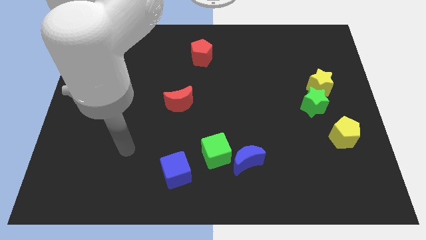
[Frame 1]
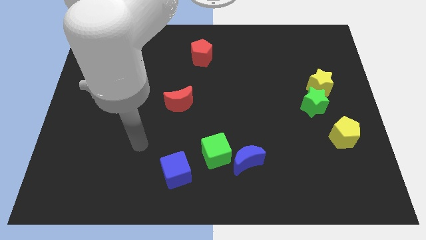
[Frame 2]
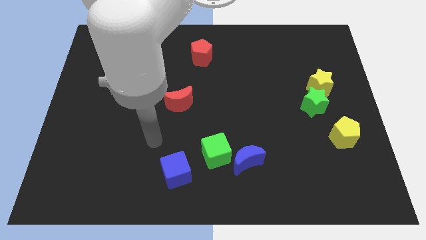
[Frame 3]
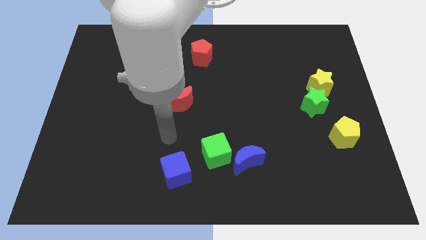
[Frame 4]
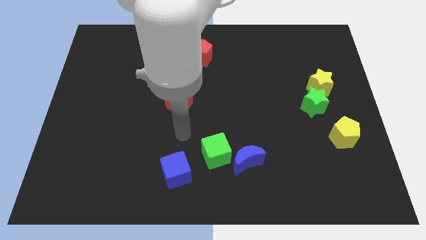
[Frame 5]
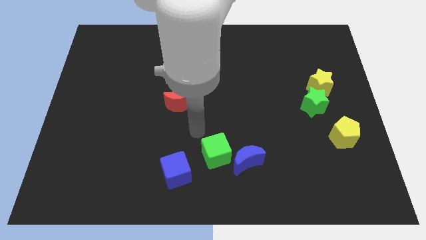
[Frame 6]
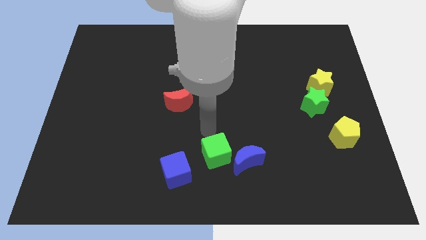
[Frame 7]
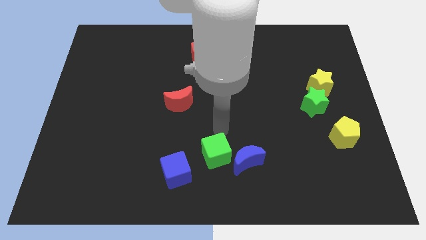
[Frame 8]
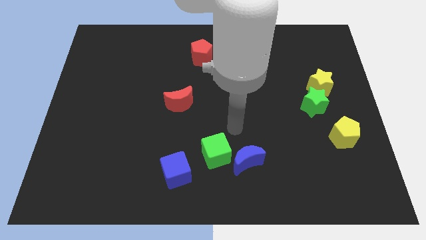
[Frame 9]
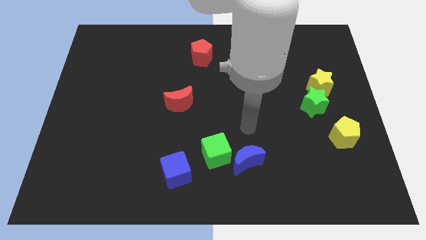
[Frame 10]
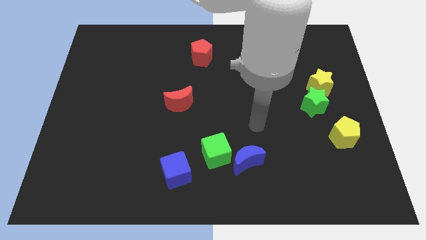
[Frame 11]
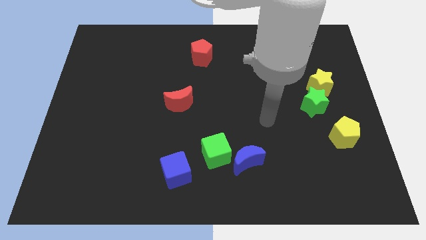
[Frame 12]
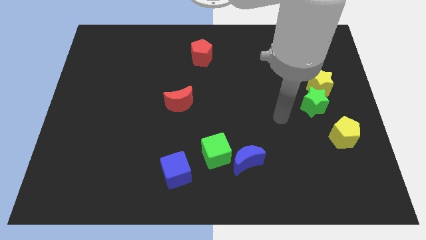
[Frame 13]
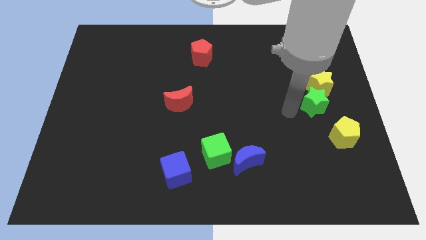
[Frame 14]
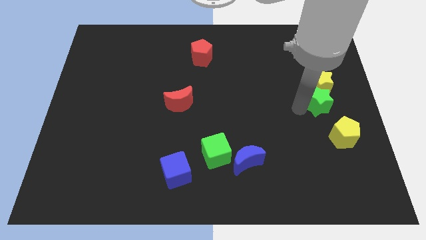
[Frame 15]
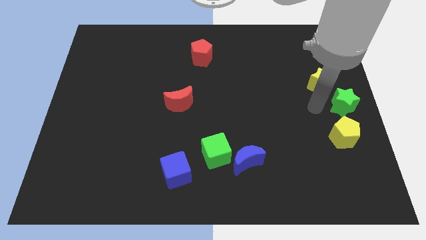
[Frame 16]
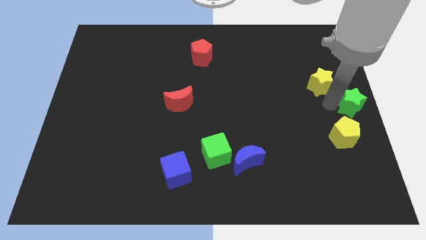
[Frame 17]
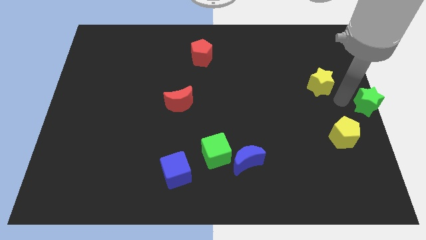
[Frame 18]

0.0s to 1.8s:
move the yellow star away from the green star

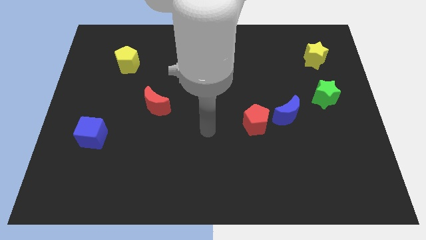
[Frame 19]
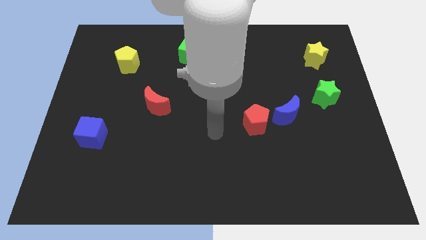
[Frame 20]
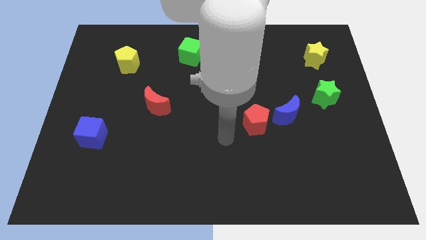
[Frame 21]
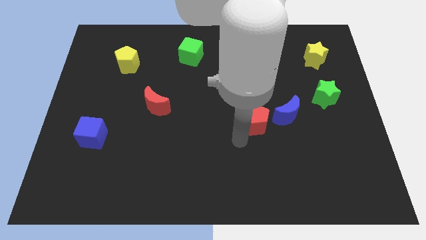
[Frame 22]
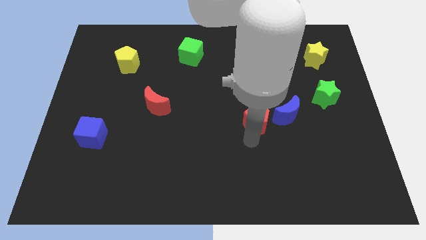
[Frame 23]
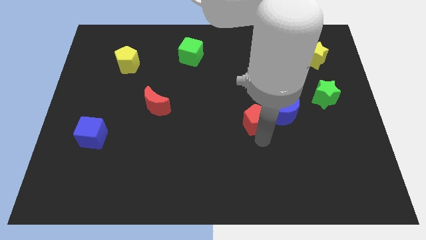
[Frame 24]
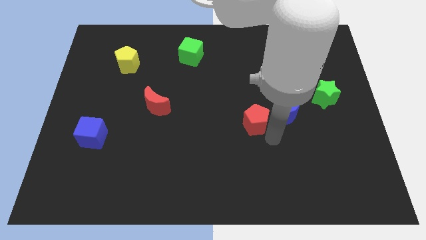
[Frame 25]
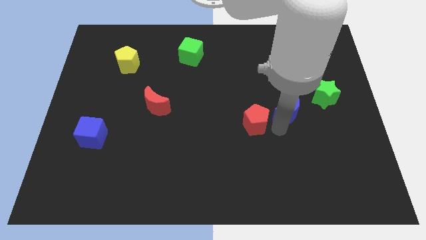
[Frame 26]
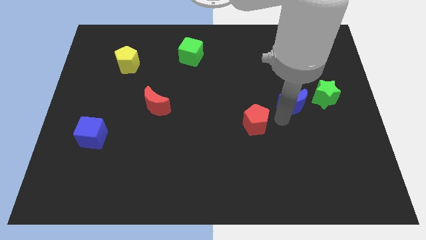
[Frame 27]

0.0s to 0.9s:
pull the red pentagon apart from the blue moon

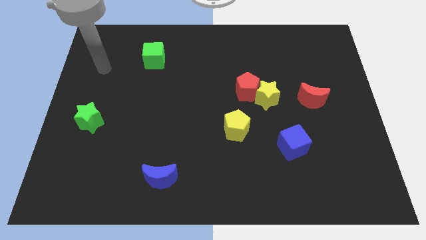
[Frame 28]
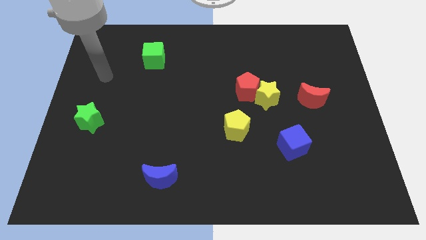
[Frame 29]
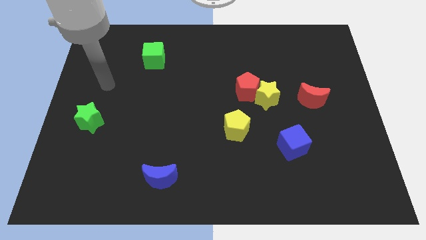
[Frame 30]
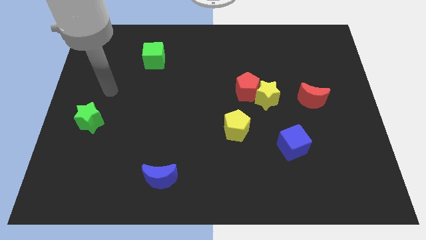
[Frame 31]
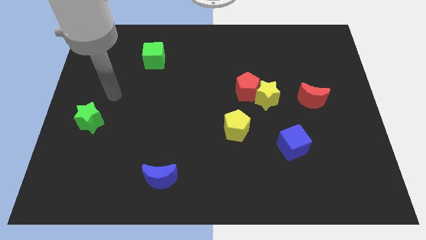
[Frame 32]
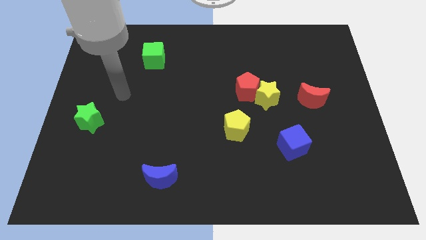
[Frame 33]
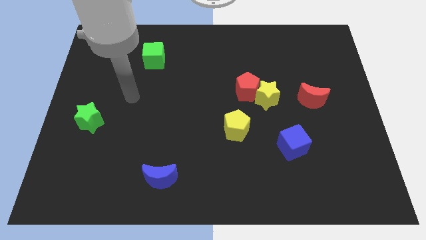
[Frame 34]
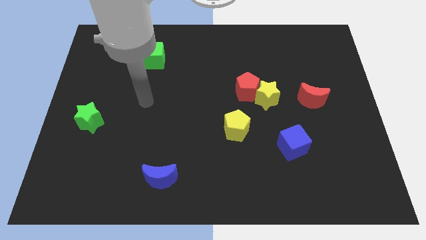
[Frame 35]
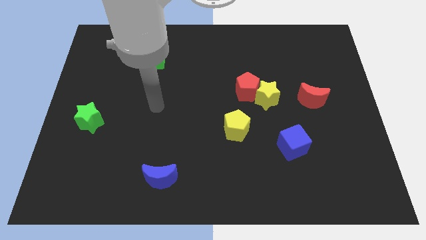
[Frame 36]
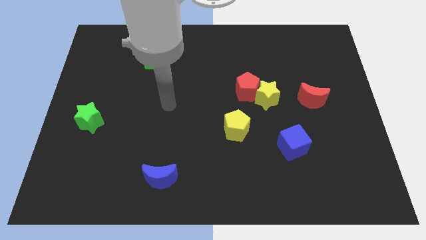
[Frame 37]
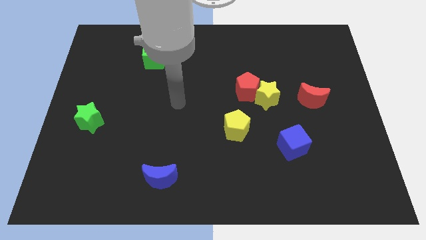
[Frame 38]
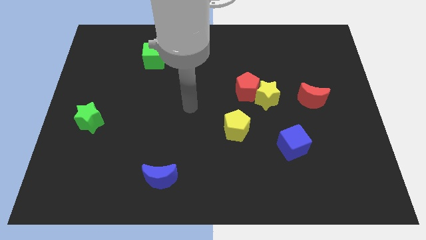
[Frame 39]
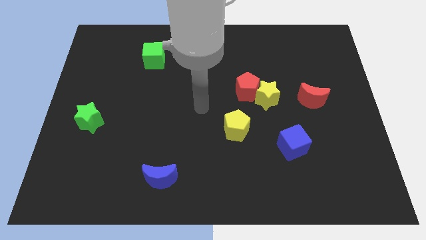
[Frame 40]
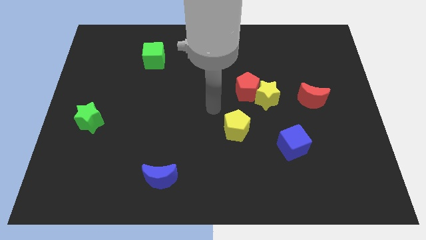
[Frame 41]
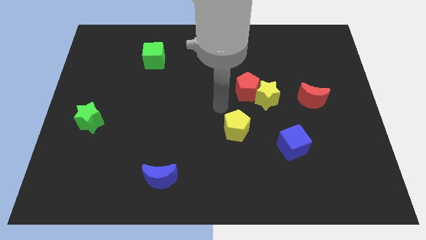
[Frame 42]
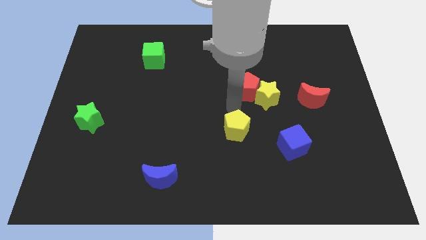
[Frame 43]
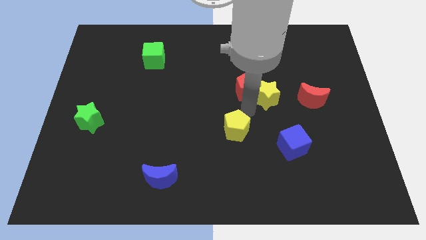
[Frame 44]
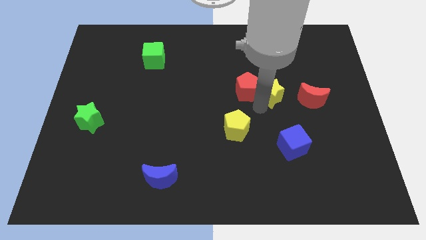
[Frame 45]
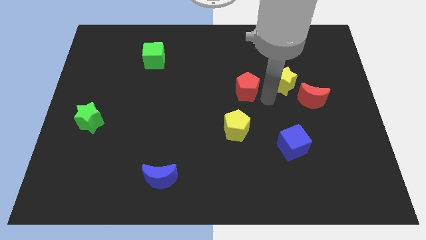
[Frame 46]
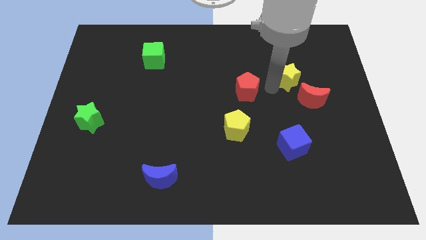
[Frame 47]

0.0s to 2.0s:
pull the red pentagon apart from the yellow star

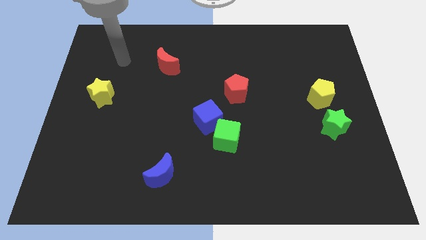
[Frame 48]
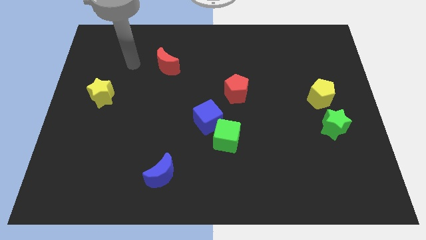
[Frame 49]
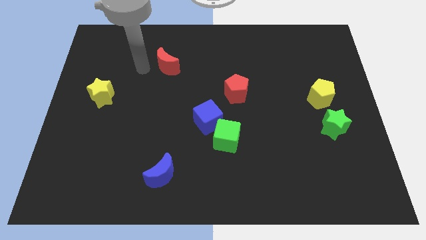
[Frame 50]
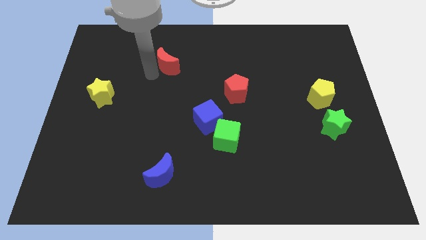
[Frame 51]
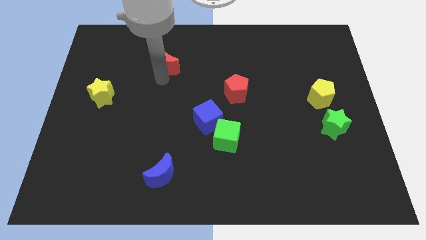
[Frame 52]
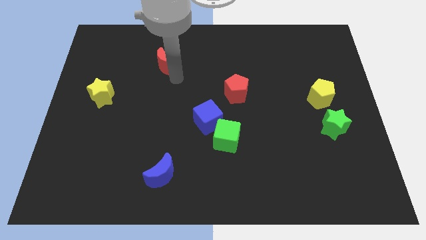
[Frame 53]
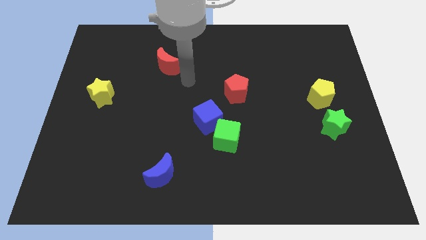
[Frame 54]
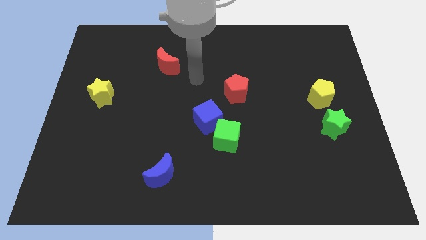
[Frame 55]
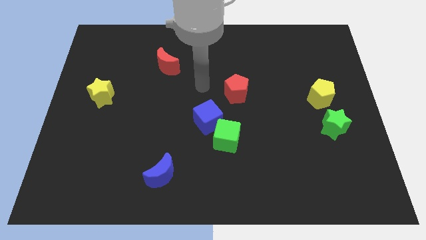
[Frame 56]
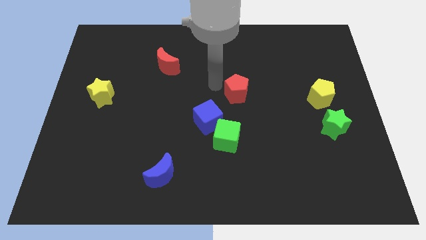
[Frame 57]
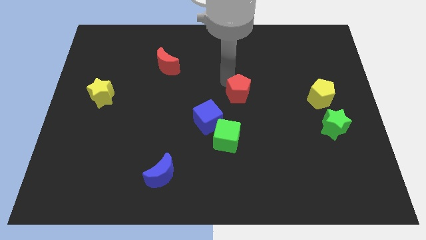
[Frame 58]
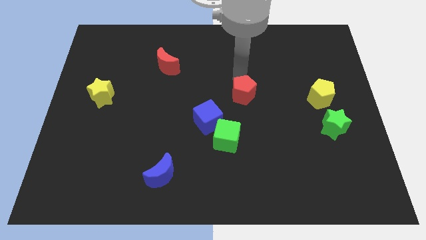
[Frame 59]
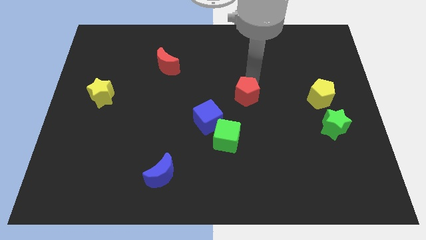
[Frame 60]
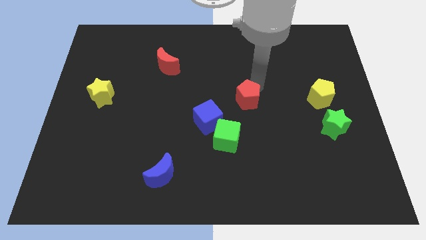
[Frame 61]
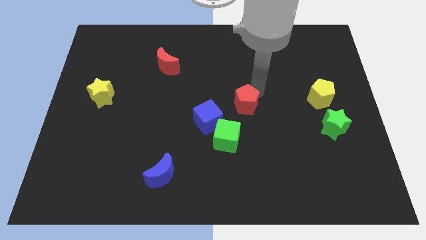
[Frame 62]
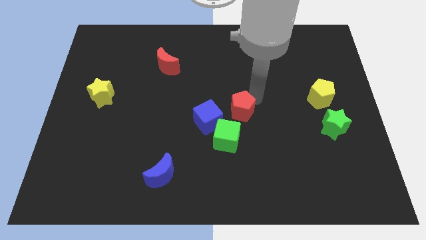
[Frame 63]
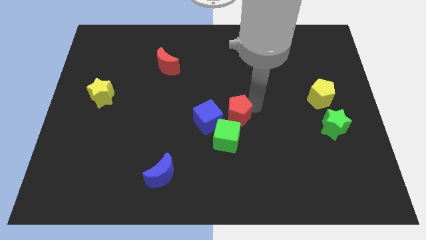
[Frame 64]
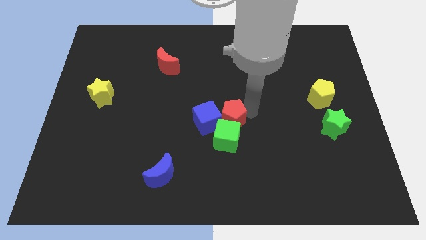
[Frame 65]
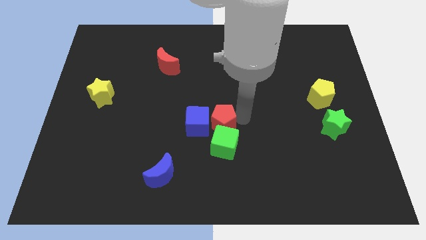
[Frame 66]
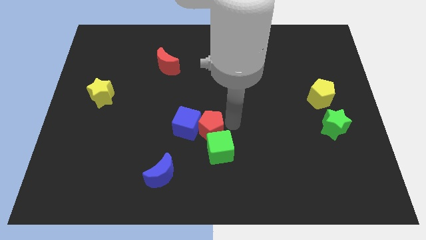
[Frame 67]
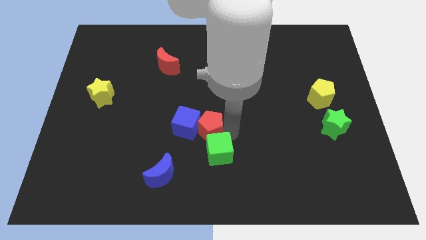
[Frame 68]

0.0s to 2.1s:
move the blue cube away from the green cube

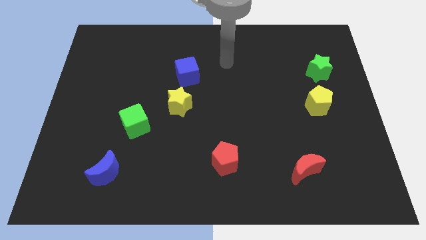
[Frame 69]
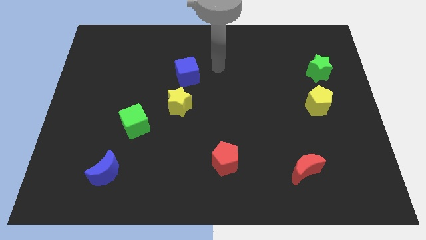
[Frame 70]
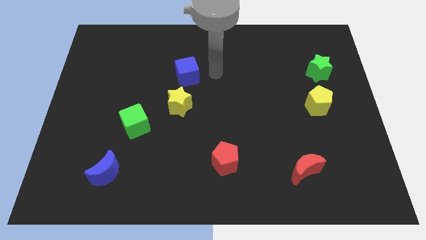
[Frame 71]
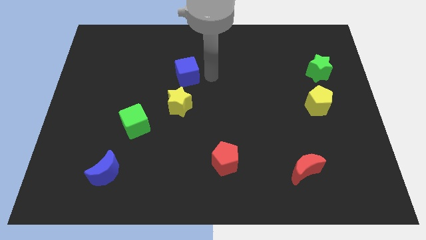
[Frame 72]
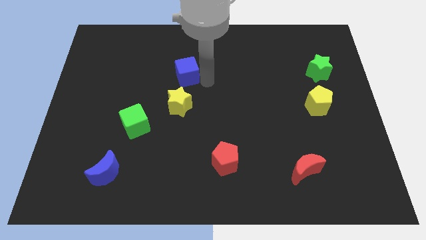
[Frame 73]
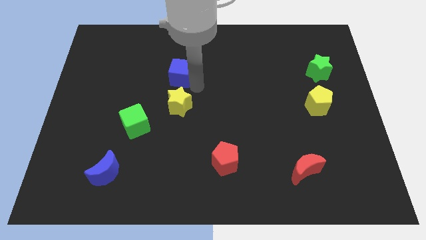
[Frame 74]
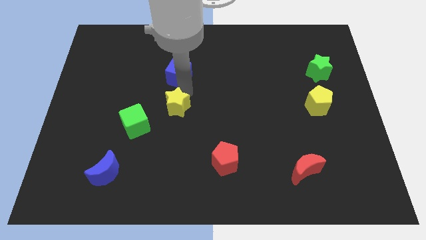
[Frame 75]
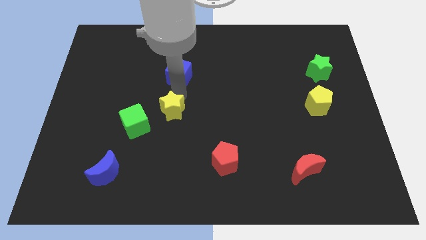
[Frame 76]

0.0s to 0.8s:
pull the blue cube apart from the yellow star

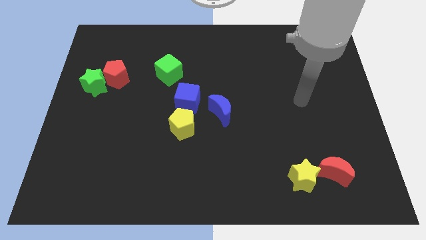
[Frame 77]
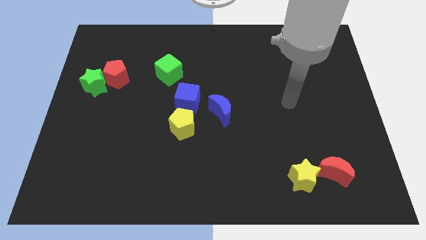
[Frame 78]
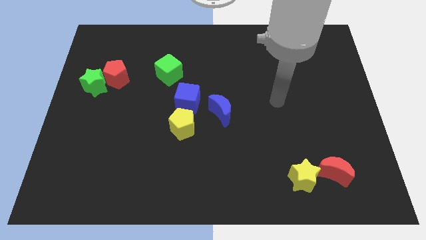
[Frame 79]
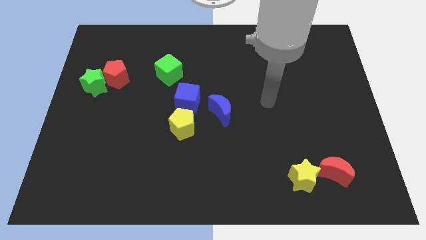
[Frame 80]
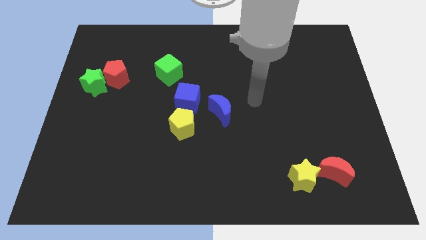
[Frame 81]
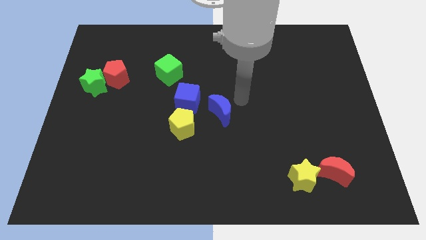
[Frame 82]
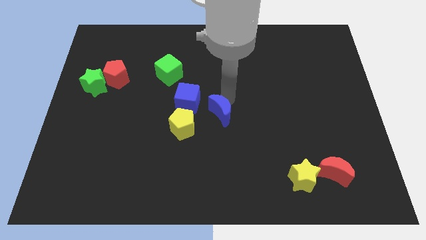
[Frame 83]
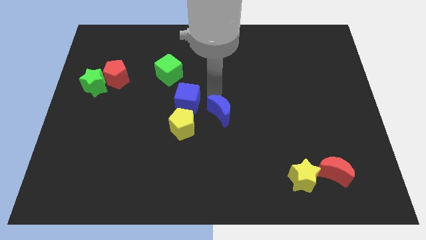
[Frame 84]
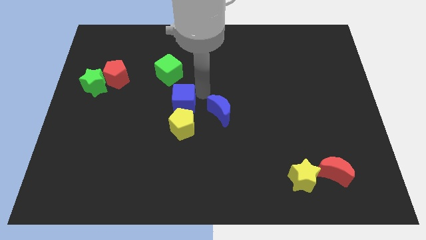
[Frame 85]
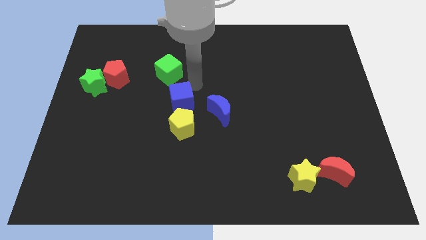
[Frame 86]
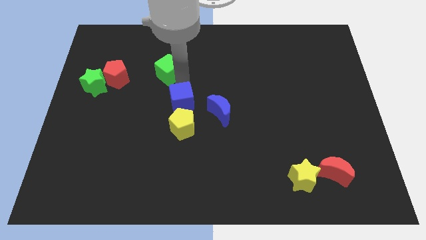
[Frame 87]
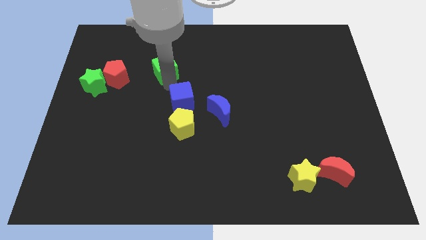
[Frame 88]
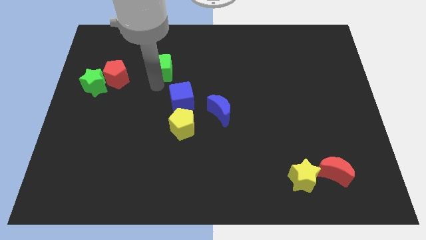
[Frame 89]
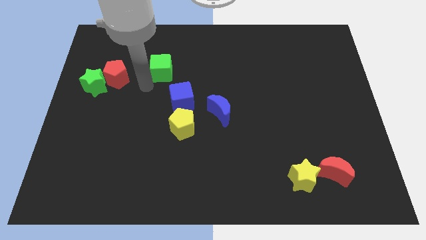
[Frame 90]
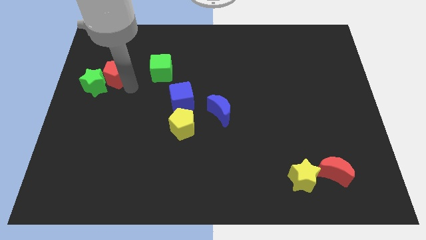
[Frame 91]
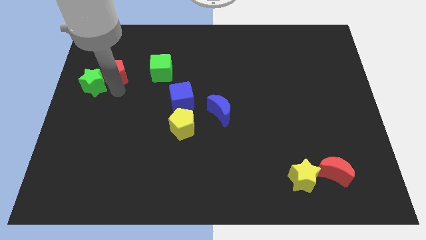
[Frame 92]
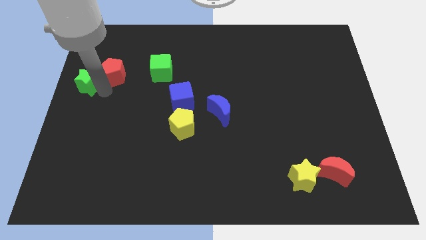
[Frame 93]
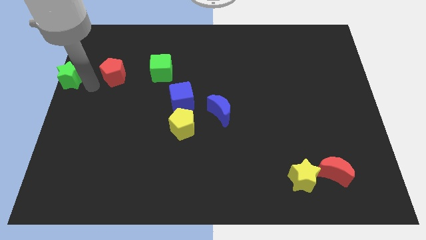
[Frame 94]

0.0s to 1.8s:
pull the red pentagon apart from the green star
